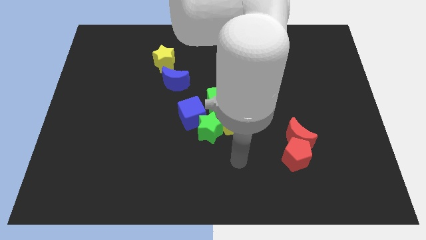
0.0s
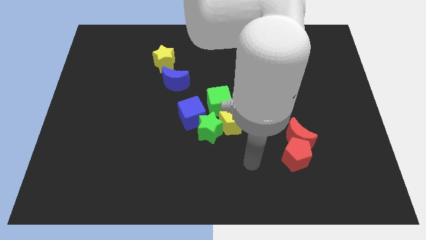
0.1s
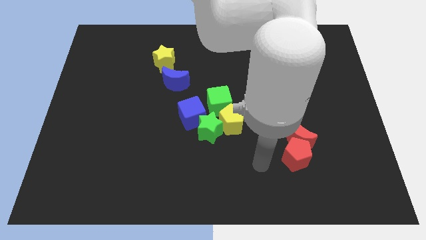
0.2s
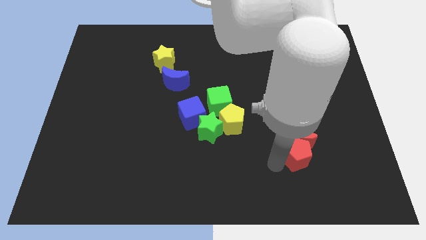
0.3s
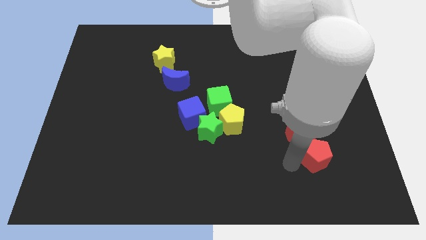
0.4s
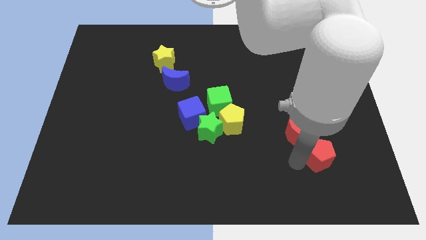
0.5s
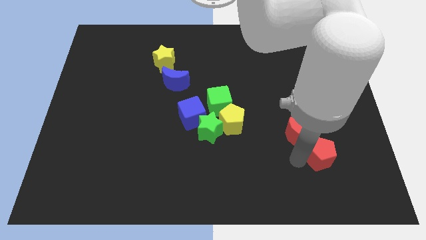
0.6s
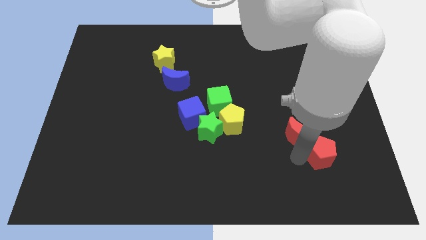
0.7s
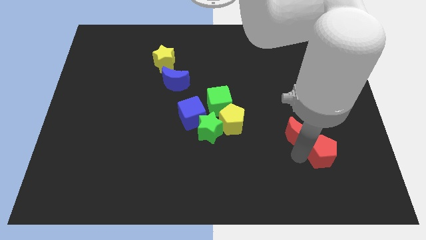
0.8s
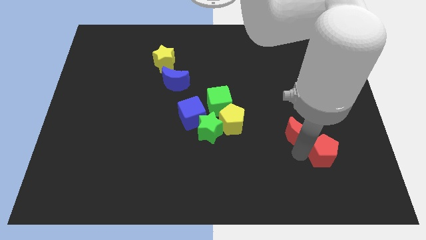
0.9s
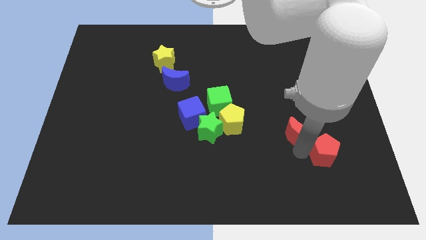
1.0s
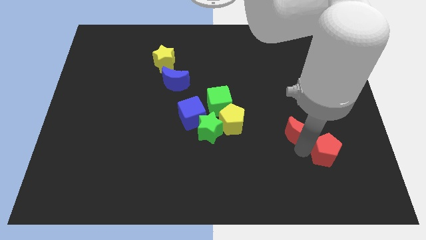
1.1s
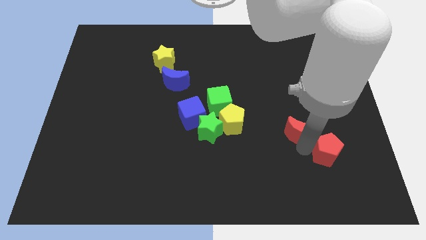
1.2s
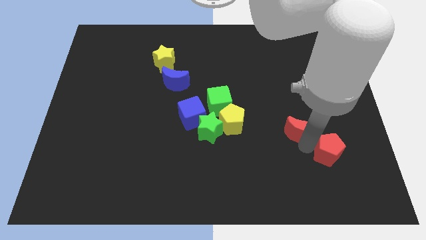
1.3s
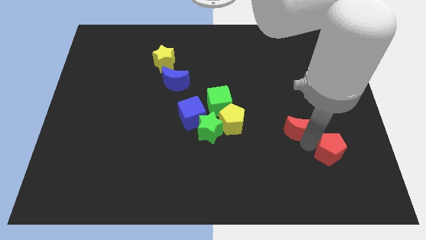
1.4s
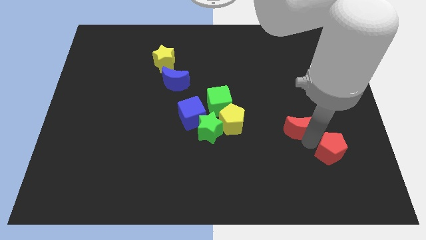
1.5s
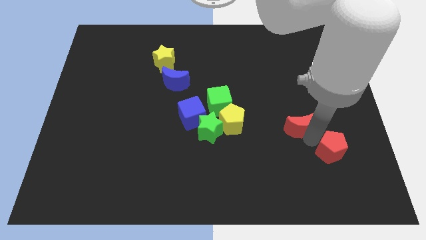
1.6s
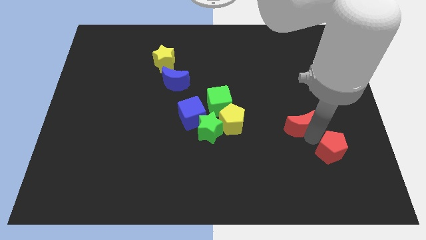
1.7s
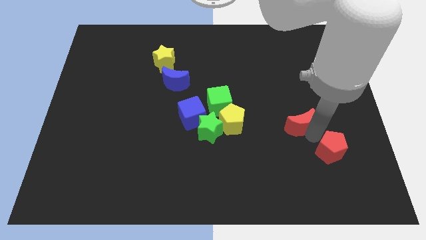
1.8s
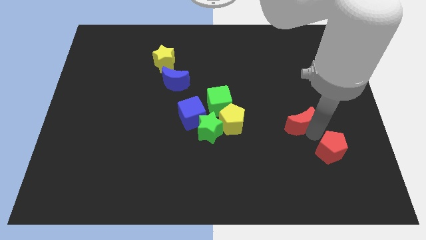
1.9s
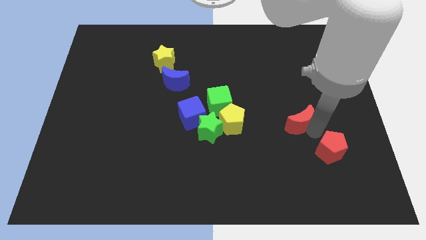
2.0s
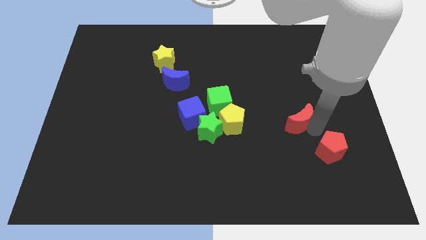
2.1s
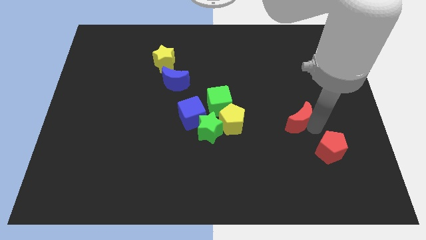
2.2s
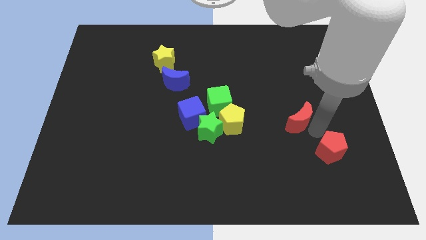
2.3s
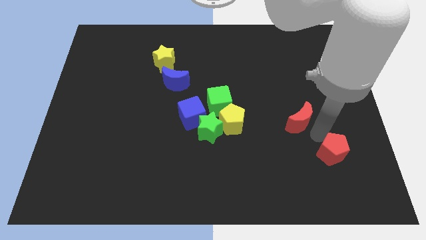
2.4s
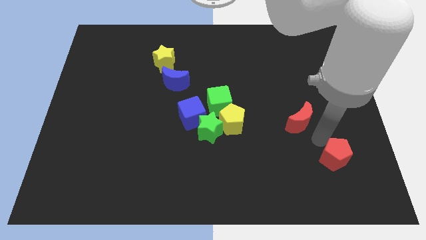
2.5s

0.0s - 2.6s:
separate the red moon from the red pentagon

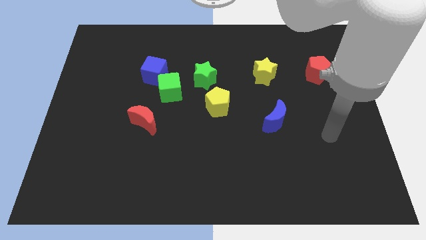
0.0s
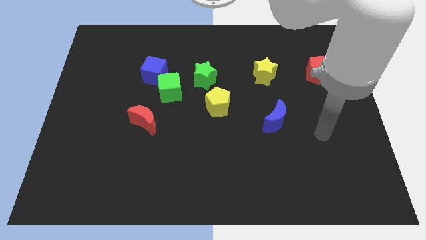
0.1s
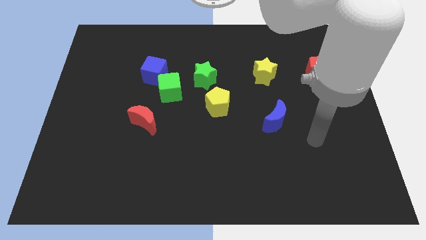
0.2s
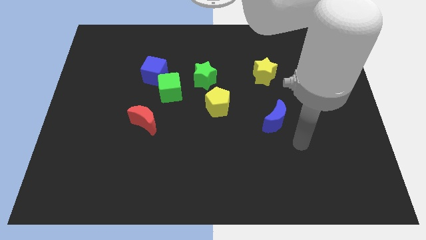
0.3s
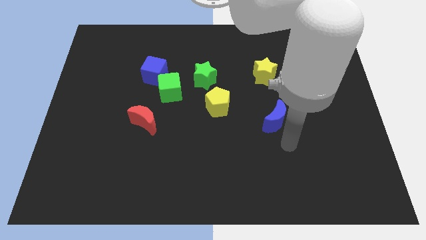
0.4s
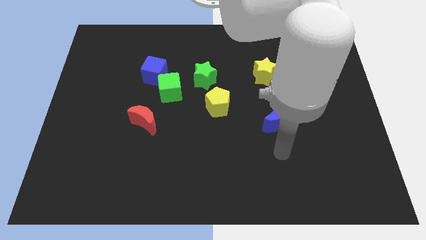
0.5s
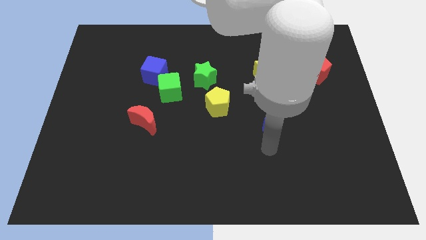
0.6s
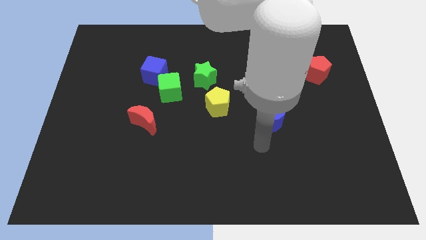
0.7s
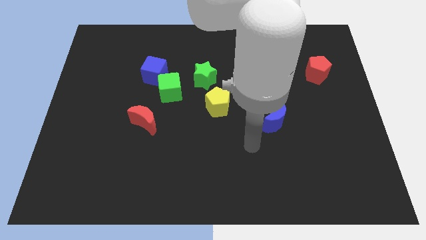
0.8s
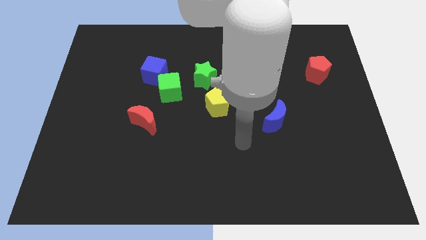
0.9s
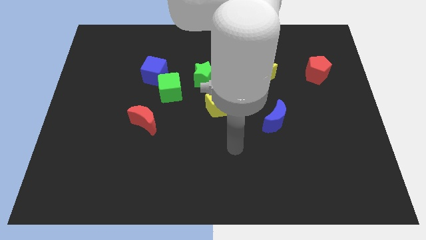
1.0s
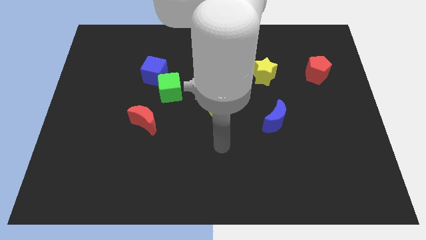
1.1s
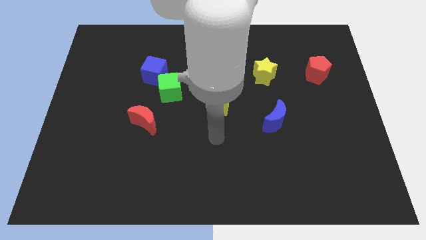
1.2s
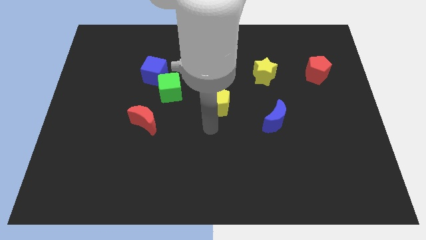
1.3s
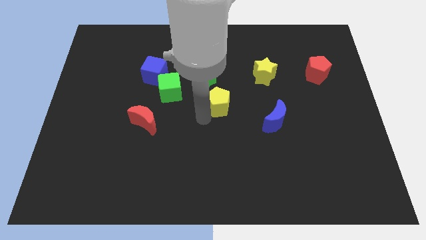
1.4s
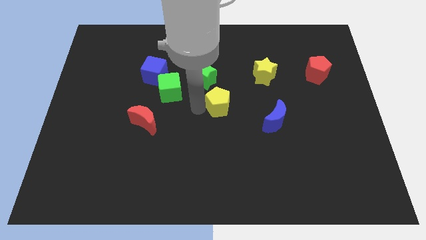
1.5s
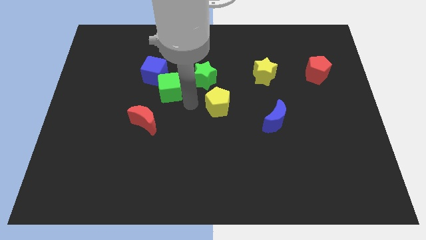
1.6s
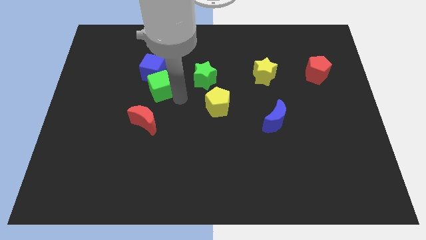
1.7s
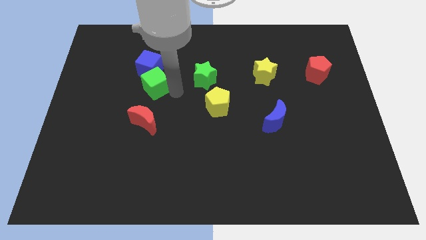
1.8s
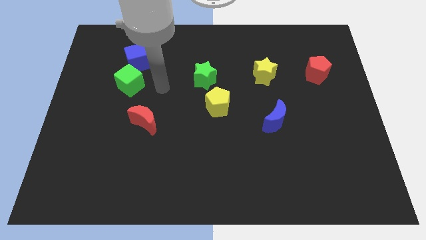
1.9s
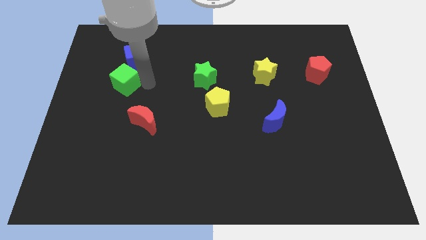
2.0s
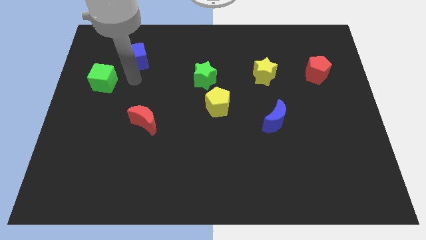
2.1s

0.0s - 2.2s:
move the blue cube away from the green cube

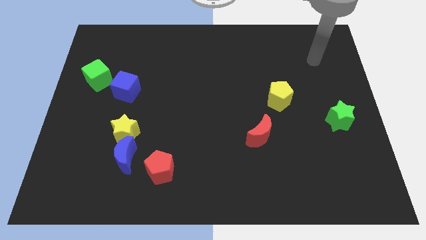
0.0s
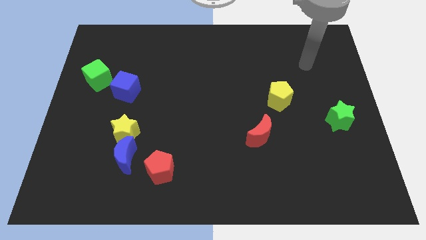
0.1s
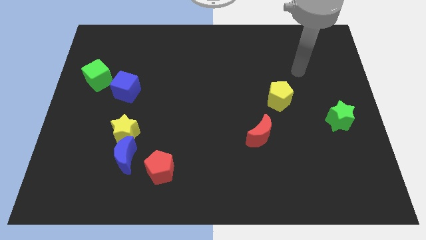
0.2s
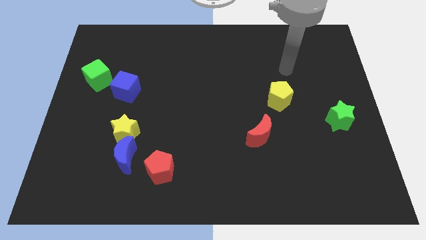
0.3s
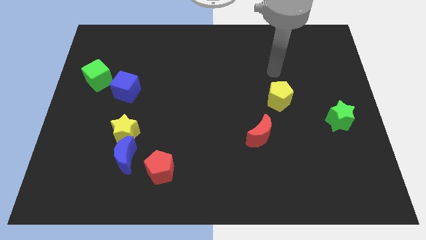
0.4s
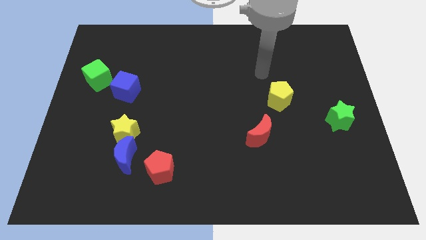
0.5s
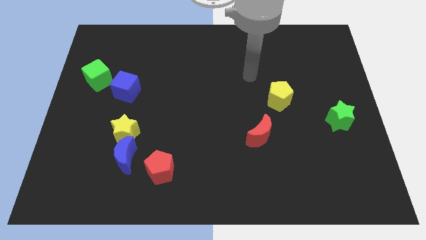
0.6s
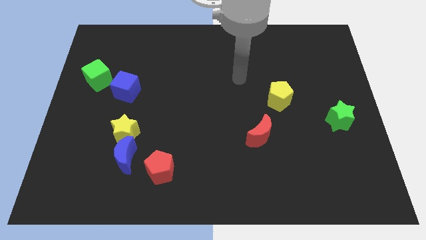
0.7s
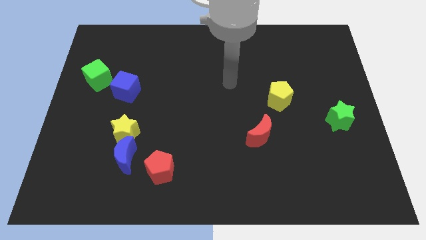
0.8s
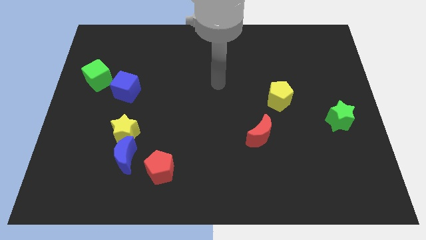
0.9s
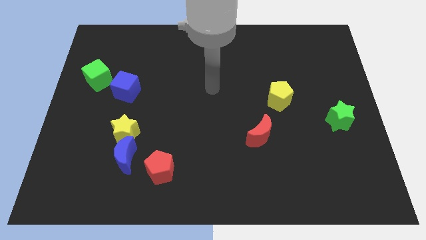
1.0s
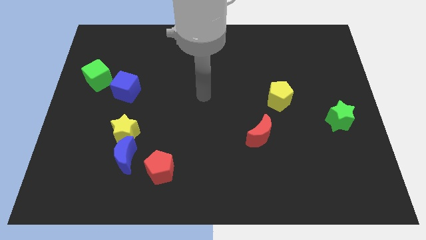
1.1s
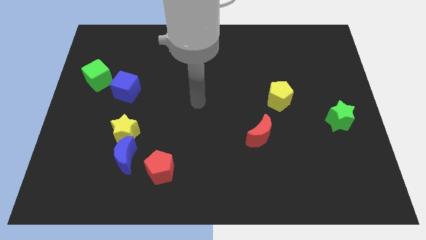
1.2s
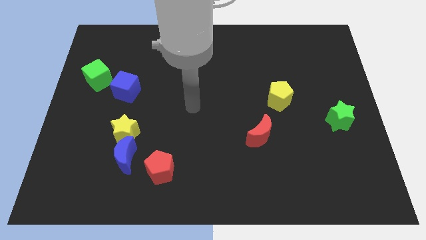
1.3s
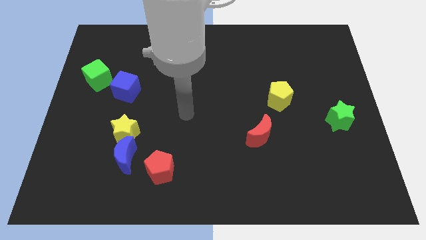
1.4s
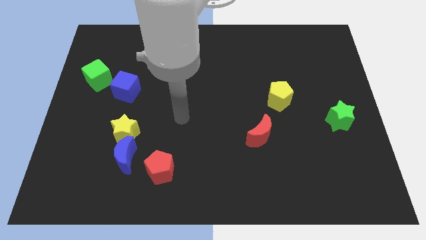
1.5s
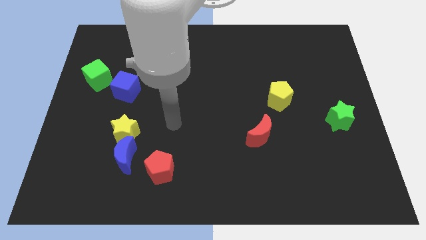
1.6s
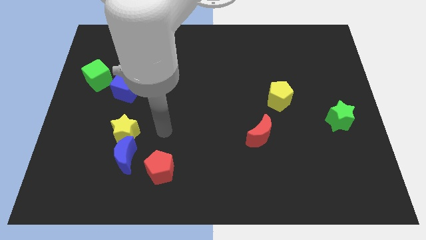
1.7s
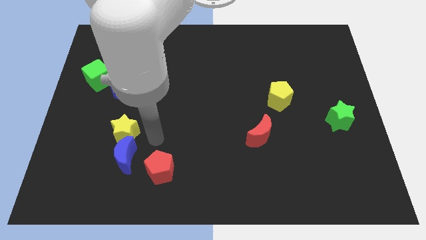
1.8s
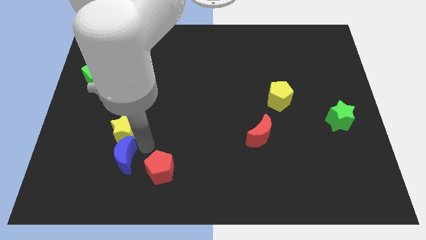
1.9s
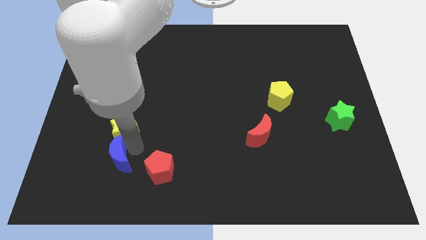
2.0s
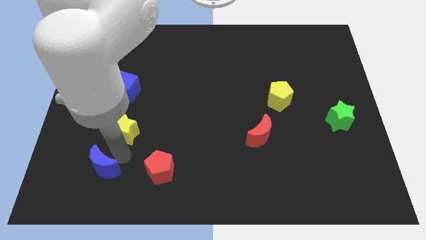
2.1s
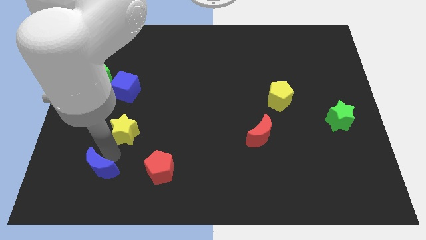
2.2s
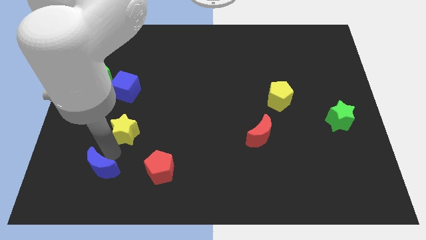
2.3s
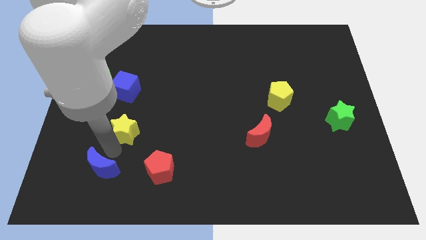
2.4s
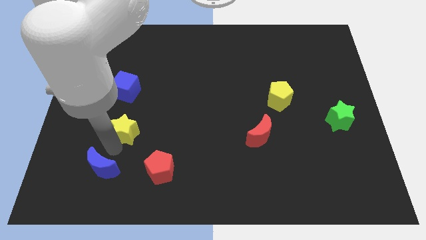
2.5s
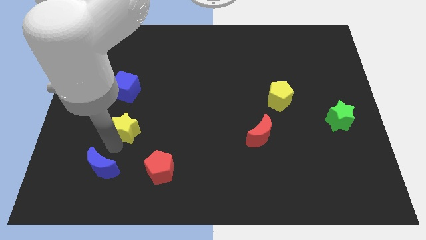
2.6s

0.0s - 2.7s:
move the yellow star away from the blue moon

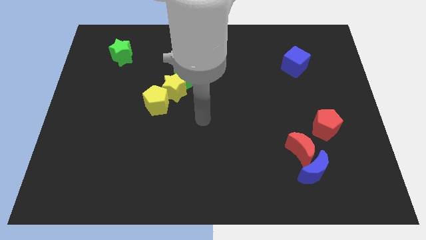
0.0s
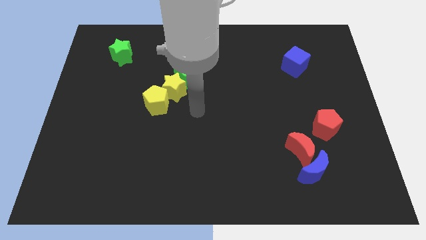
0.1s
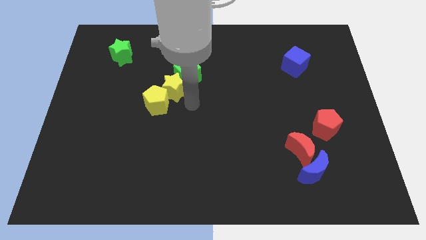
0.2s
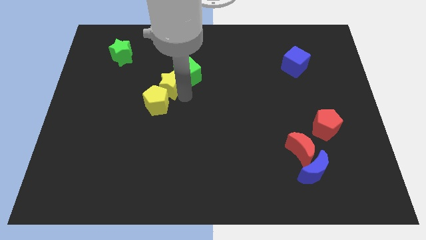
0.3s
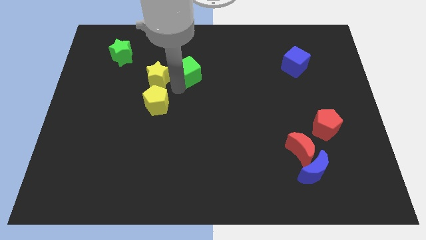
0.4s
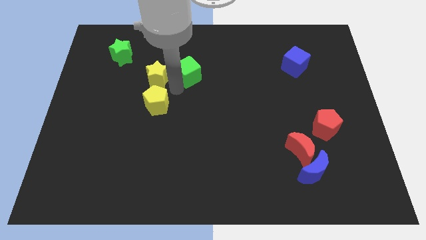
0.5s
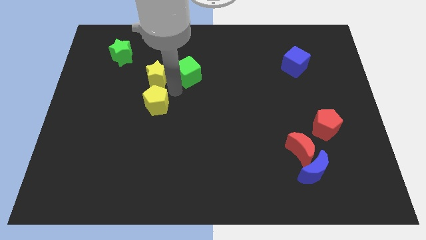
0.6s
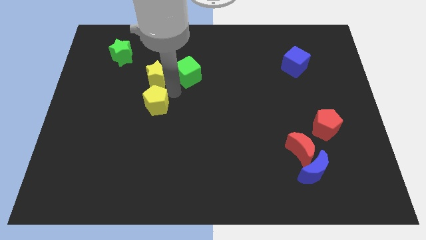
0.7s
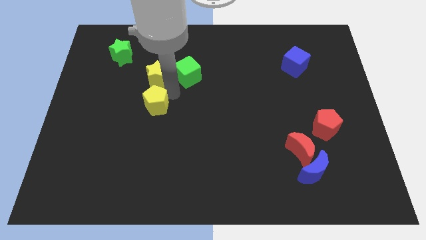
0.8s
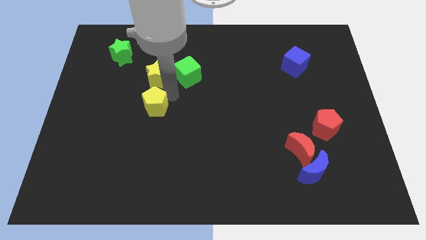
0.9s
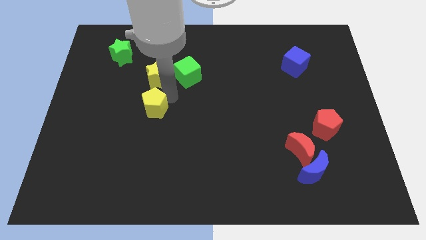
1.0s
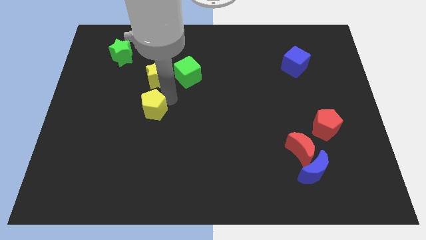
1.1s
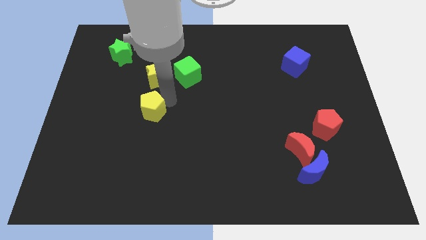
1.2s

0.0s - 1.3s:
pull the yellow pentagon apart from the yellow star

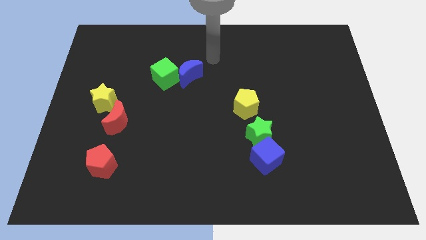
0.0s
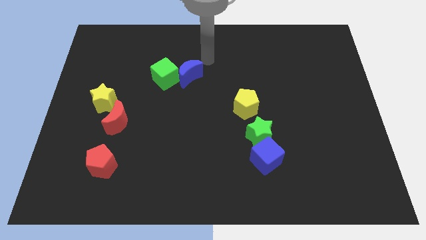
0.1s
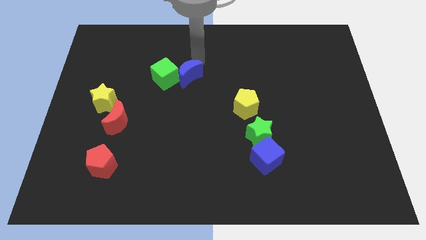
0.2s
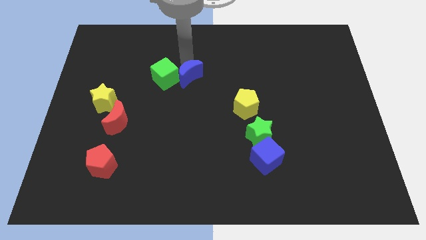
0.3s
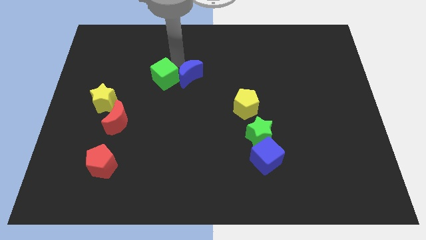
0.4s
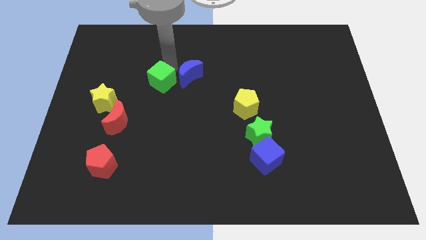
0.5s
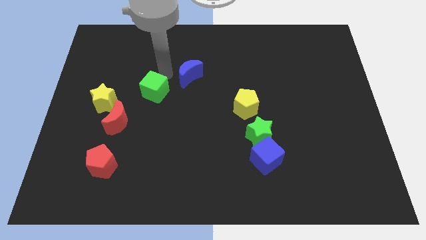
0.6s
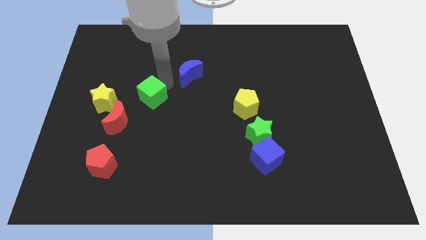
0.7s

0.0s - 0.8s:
separate the blue moon from the green cube
